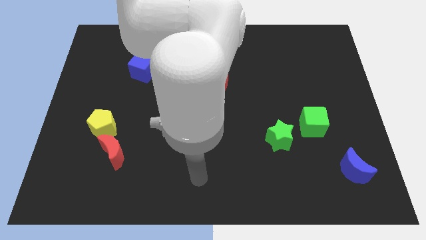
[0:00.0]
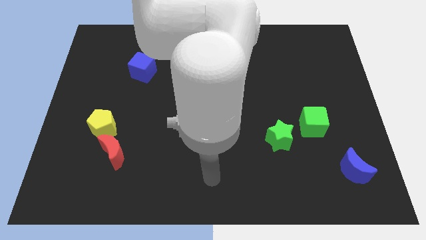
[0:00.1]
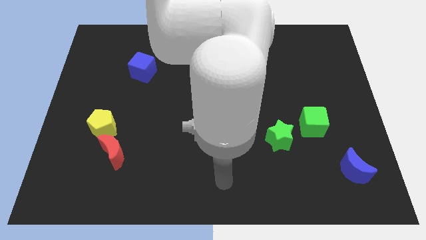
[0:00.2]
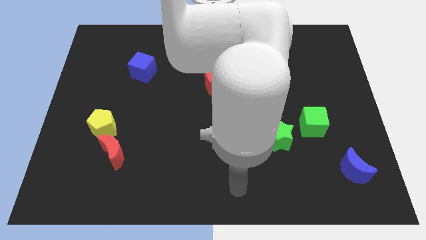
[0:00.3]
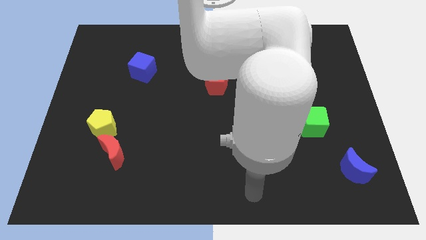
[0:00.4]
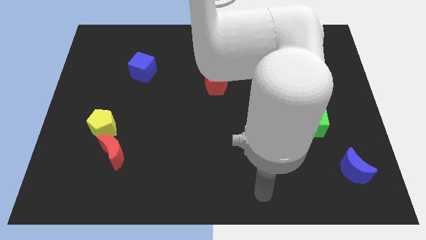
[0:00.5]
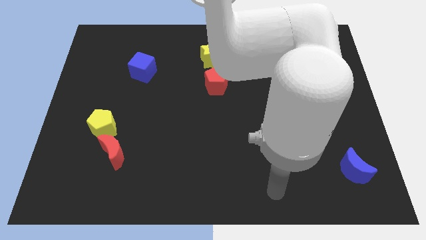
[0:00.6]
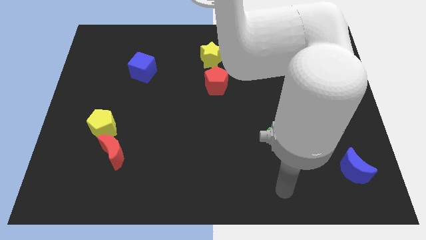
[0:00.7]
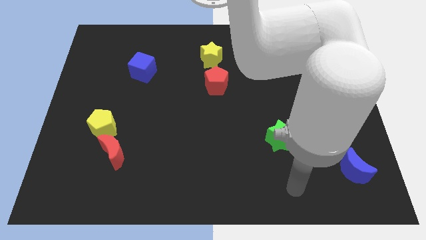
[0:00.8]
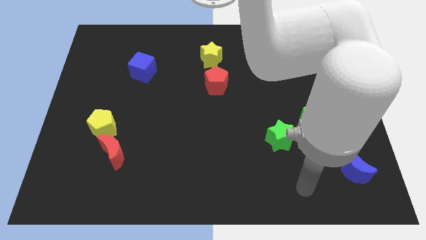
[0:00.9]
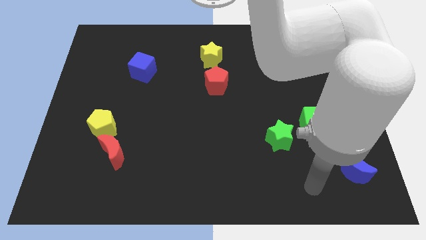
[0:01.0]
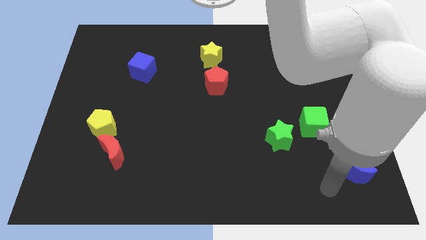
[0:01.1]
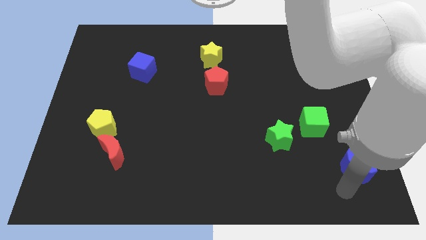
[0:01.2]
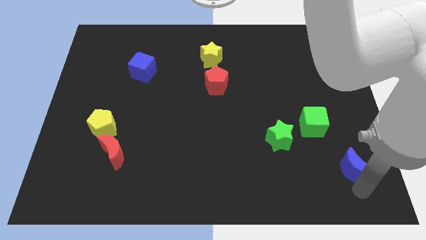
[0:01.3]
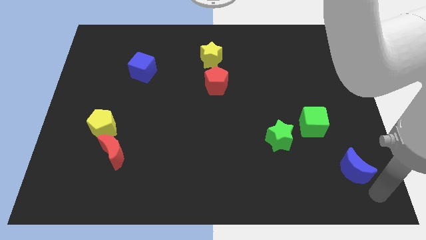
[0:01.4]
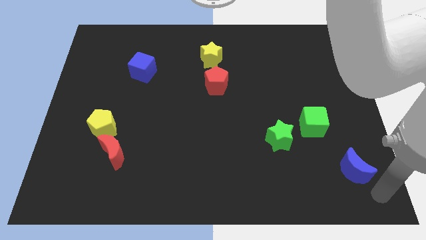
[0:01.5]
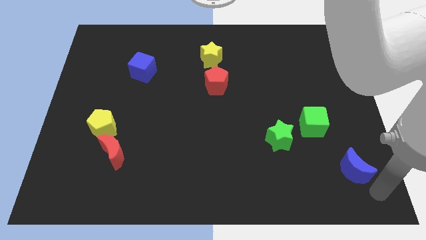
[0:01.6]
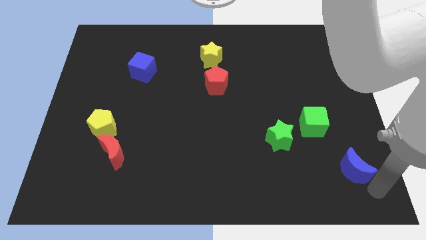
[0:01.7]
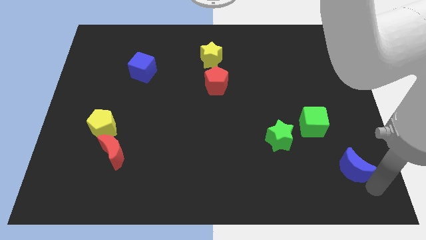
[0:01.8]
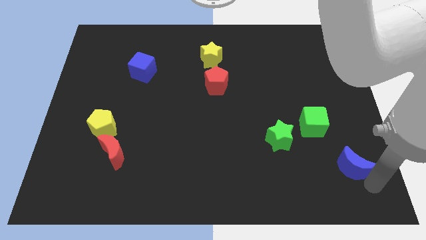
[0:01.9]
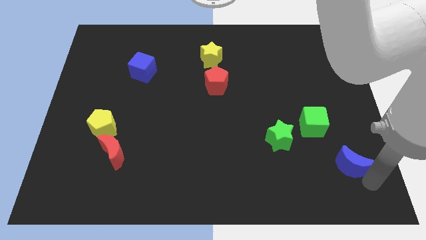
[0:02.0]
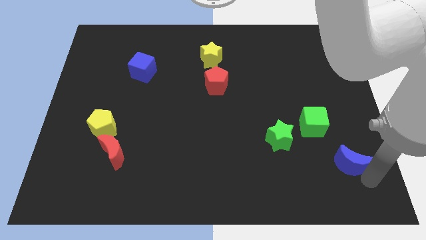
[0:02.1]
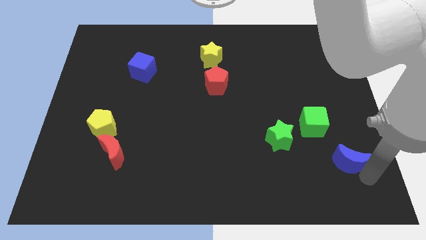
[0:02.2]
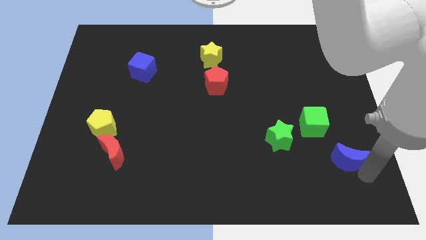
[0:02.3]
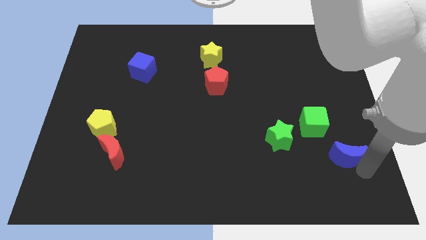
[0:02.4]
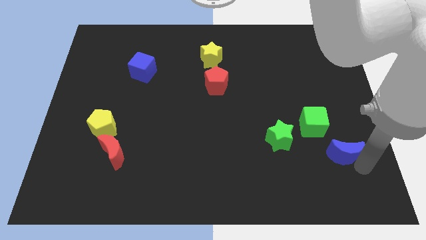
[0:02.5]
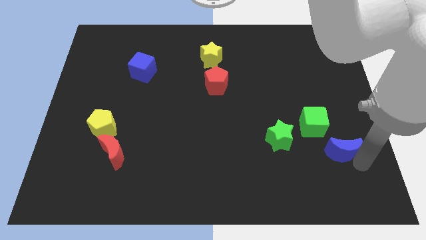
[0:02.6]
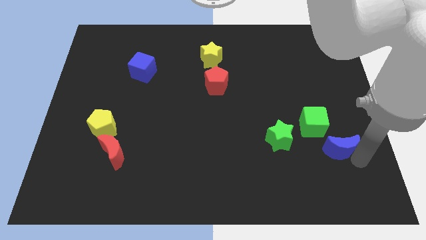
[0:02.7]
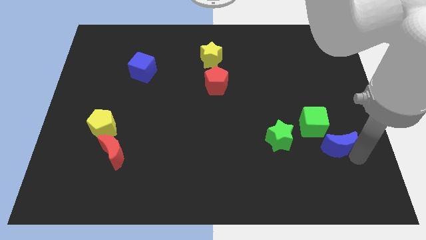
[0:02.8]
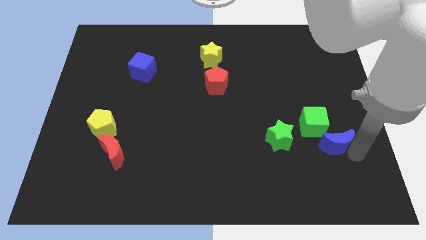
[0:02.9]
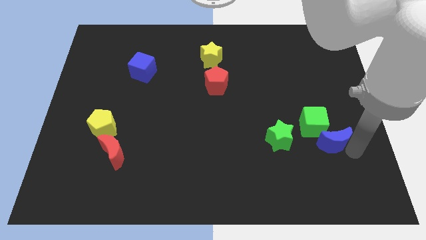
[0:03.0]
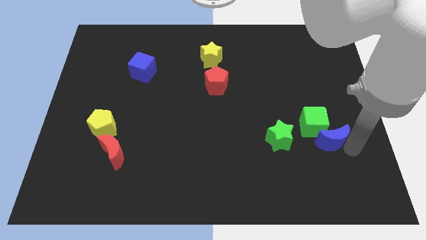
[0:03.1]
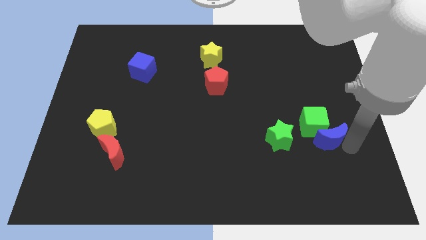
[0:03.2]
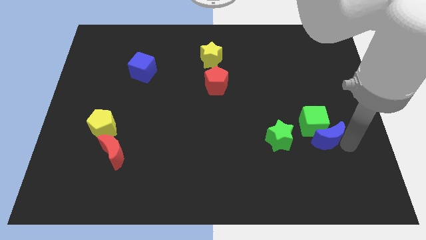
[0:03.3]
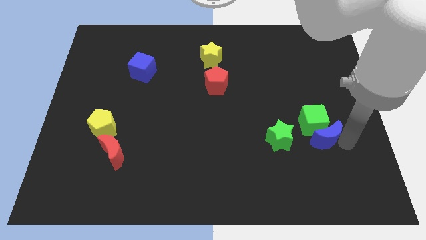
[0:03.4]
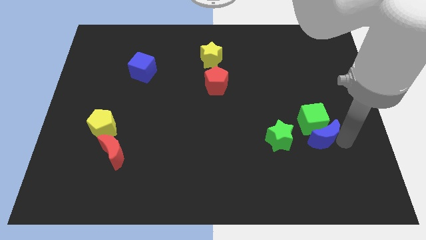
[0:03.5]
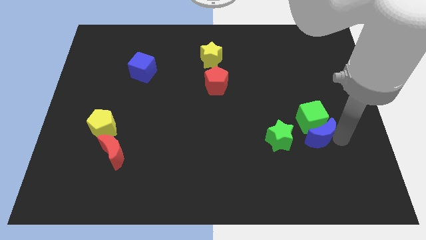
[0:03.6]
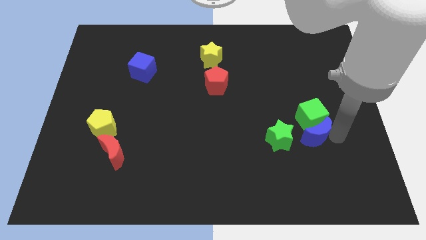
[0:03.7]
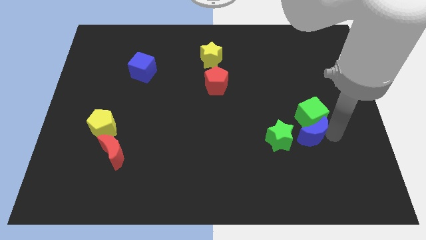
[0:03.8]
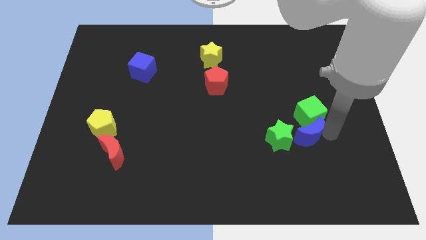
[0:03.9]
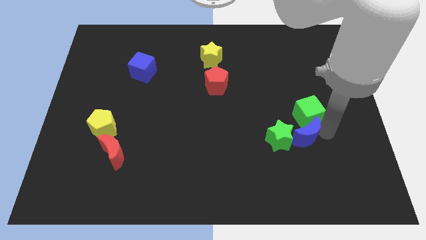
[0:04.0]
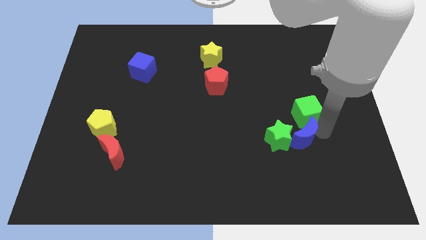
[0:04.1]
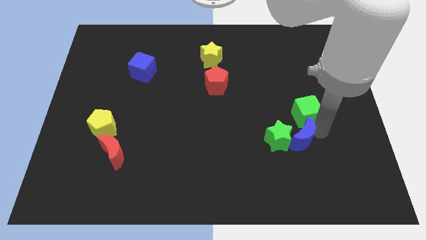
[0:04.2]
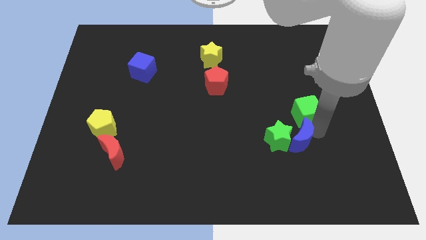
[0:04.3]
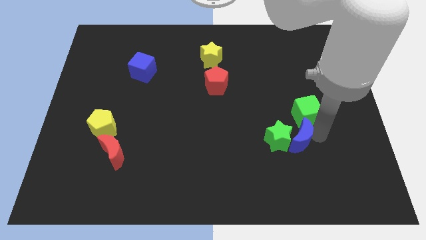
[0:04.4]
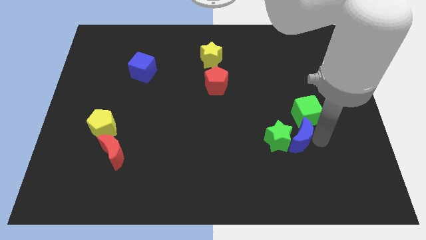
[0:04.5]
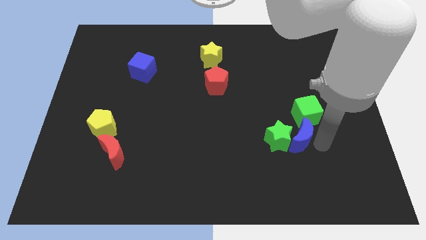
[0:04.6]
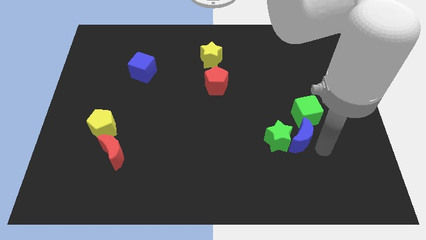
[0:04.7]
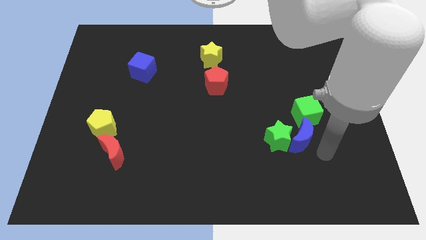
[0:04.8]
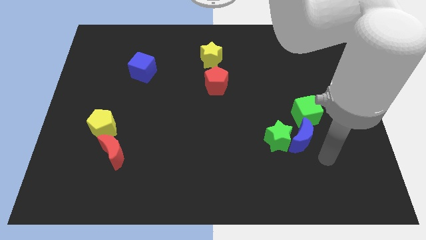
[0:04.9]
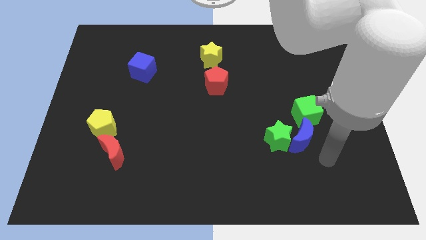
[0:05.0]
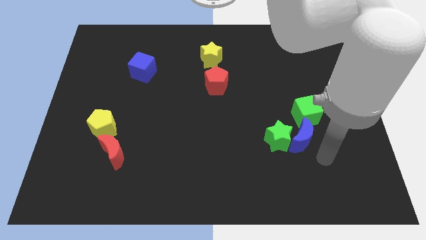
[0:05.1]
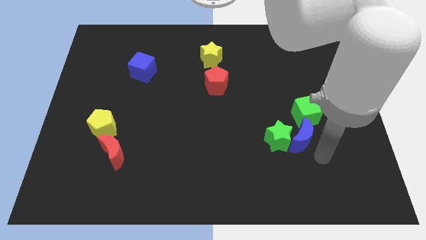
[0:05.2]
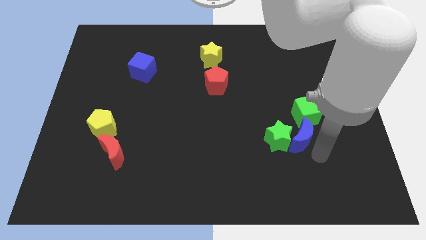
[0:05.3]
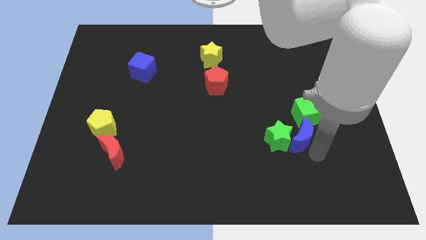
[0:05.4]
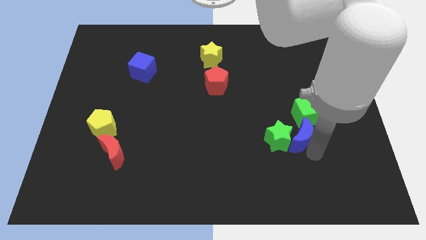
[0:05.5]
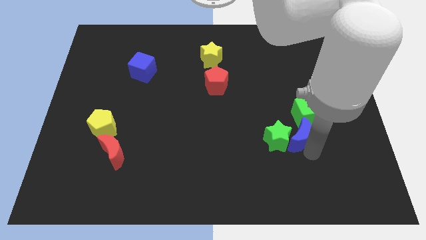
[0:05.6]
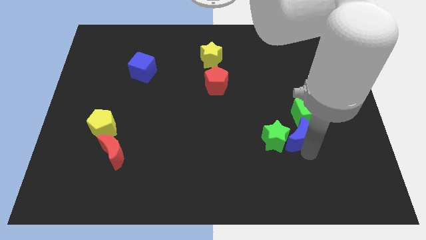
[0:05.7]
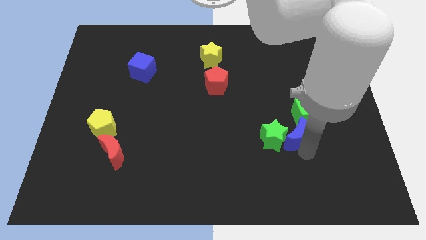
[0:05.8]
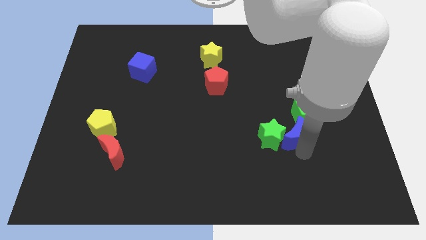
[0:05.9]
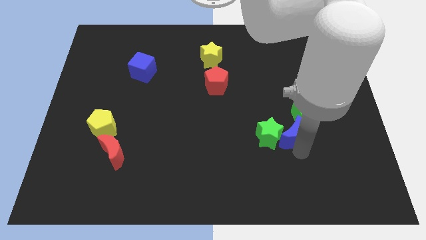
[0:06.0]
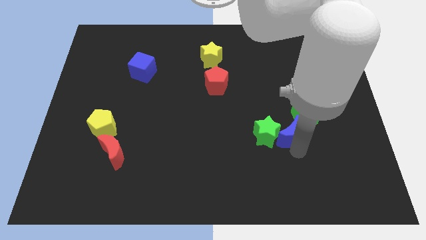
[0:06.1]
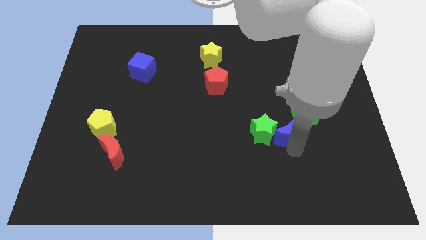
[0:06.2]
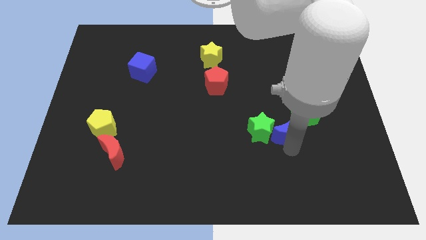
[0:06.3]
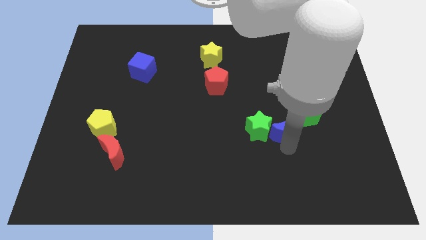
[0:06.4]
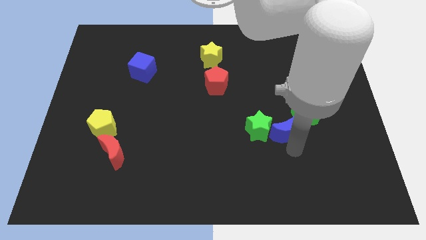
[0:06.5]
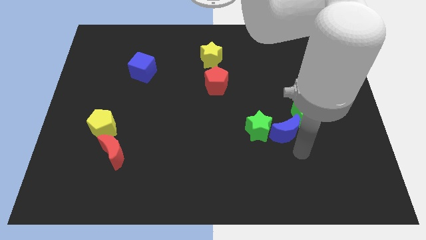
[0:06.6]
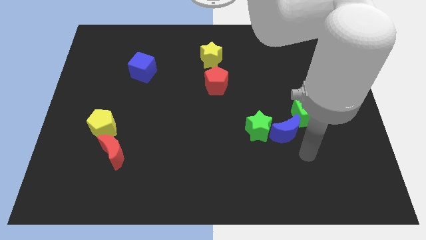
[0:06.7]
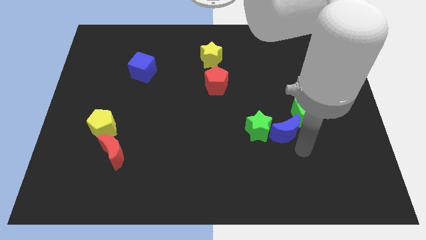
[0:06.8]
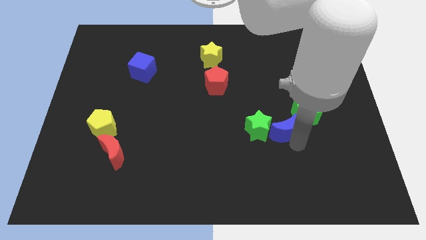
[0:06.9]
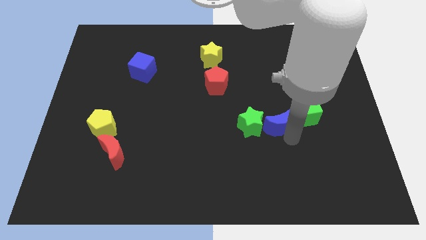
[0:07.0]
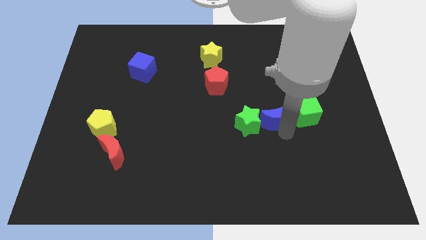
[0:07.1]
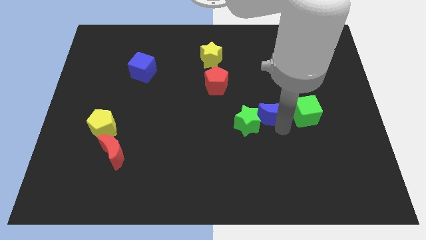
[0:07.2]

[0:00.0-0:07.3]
push the blue moon upwards and then to the left

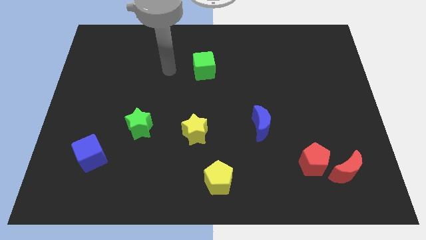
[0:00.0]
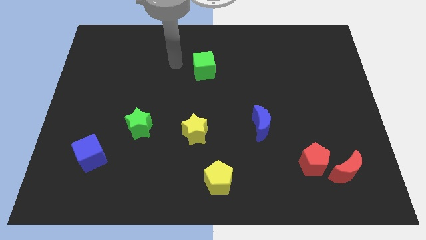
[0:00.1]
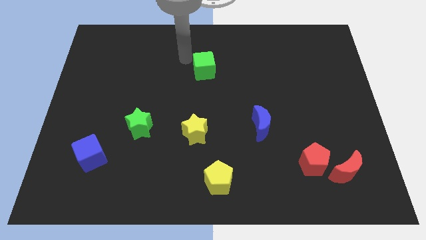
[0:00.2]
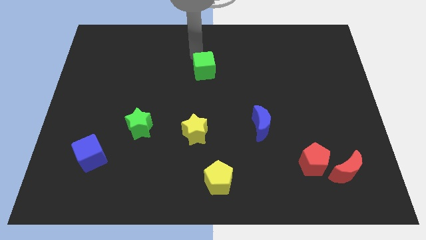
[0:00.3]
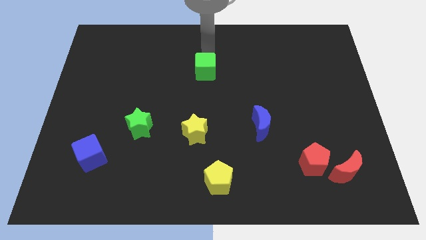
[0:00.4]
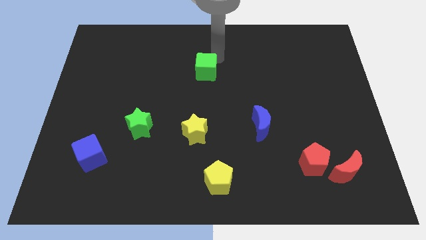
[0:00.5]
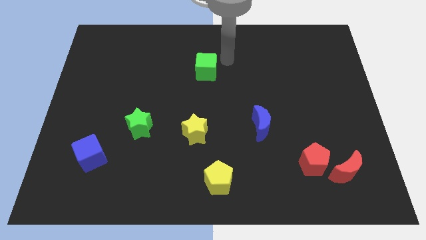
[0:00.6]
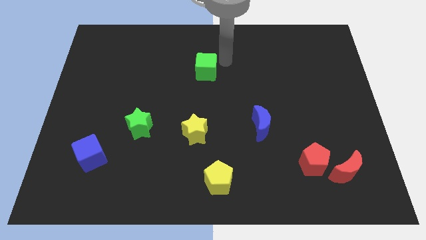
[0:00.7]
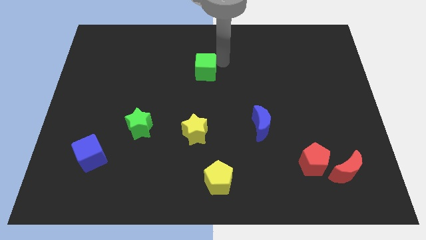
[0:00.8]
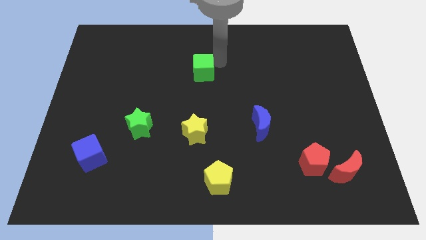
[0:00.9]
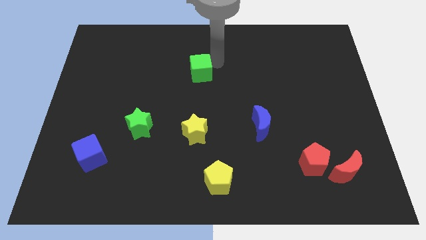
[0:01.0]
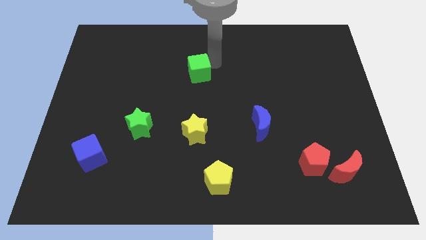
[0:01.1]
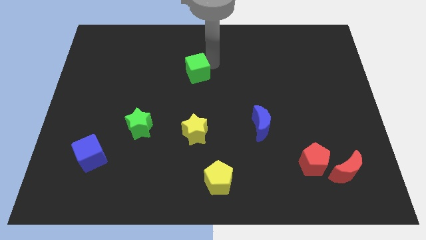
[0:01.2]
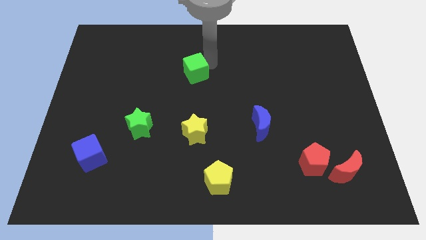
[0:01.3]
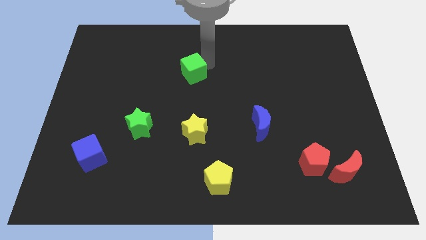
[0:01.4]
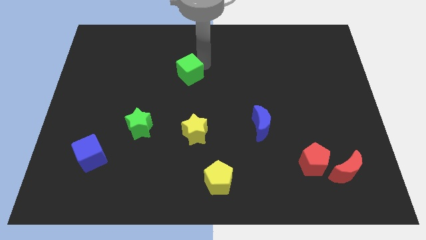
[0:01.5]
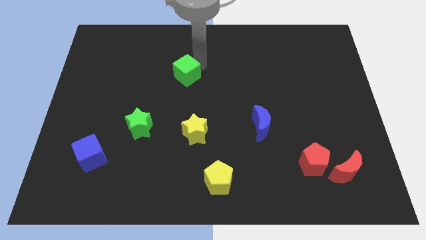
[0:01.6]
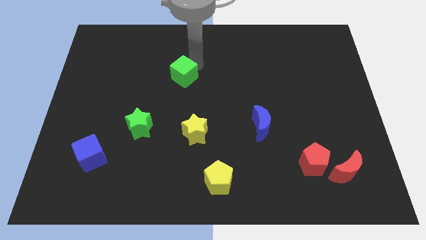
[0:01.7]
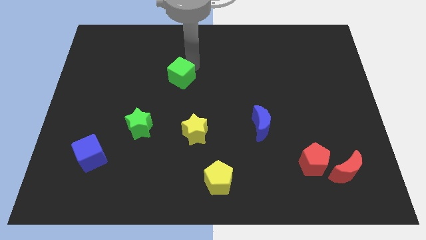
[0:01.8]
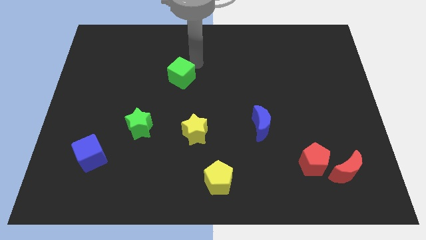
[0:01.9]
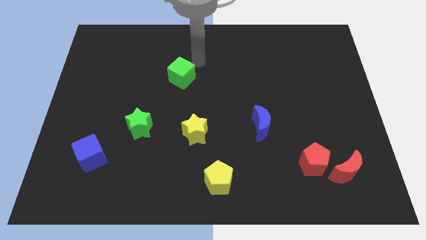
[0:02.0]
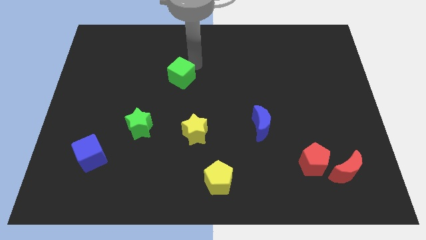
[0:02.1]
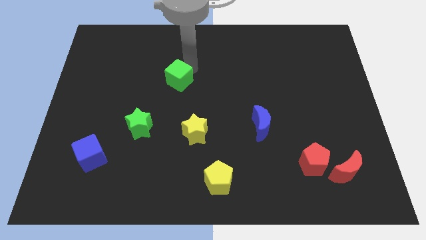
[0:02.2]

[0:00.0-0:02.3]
slide the green cube down and left slightly
